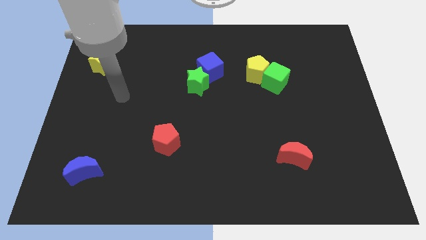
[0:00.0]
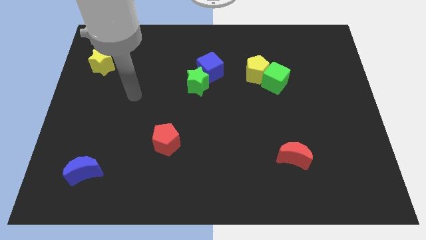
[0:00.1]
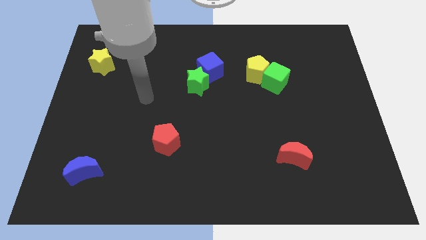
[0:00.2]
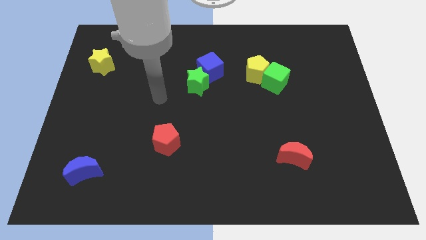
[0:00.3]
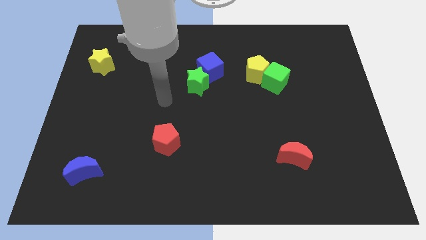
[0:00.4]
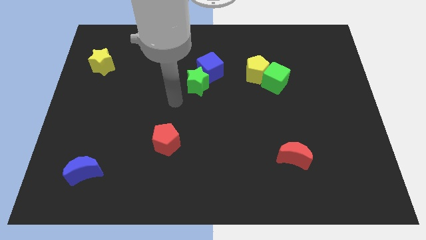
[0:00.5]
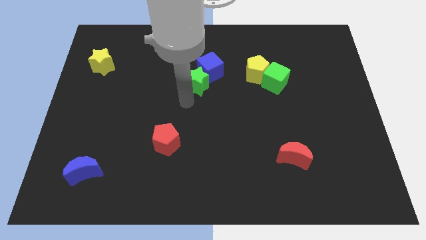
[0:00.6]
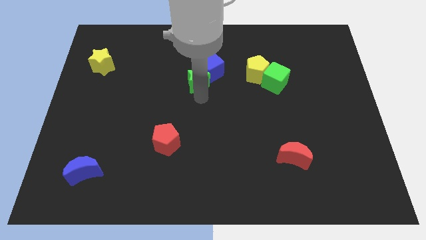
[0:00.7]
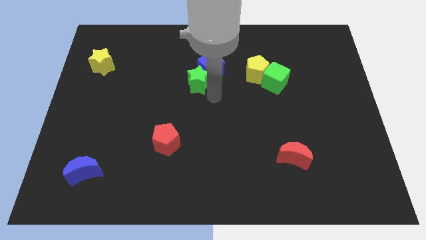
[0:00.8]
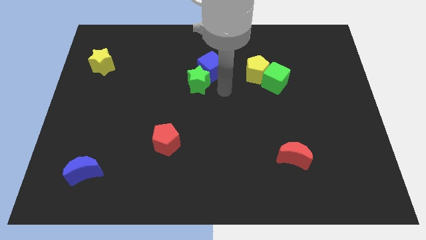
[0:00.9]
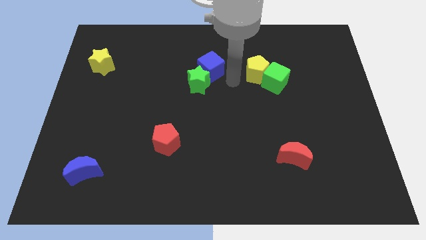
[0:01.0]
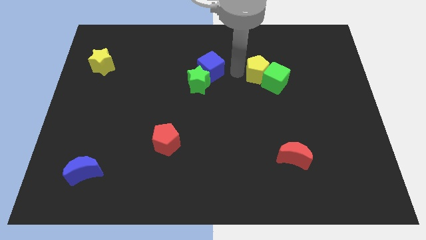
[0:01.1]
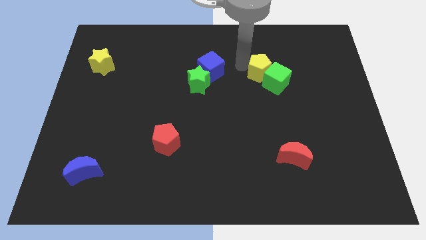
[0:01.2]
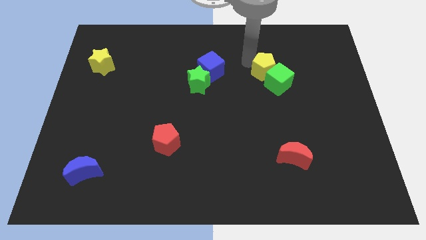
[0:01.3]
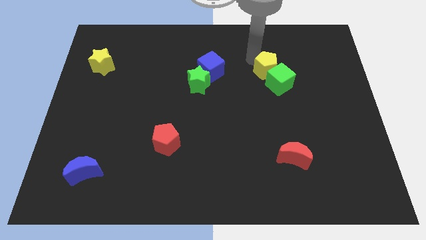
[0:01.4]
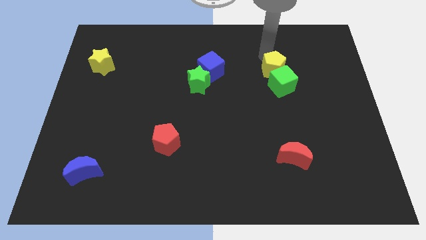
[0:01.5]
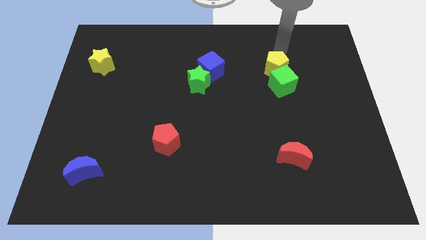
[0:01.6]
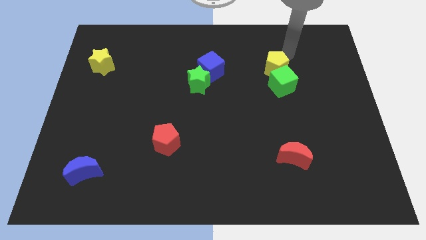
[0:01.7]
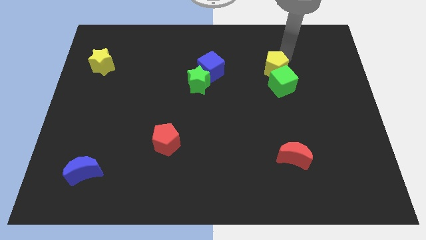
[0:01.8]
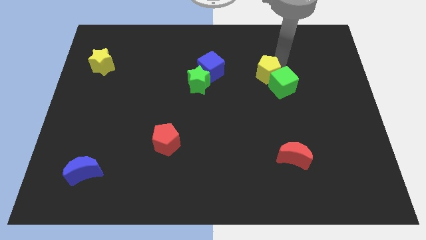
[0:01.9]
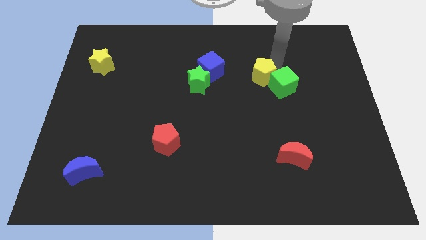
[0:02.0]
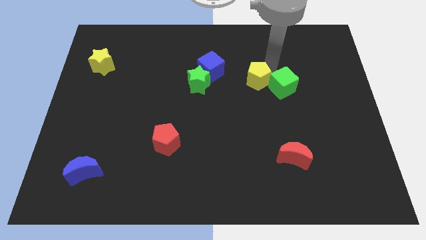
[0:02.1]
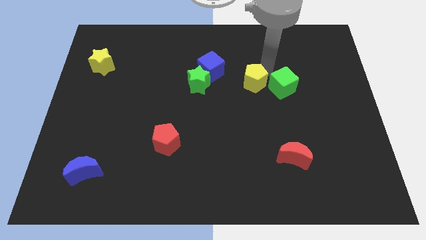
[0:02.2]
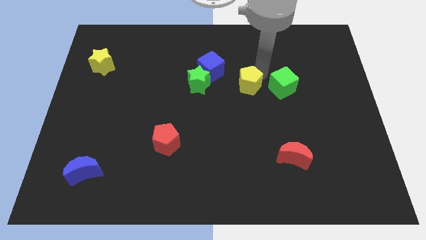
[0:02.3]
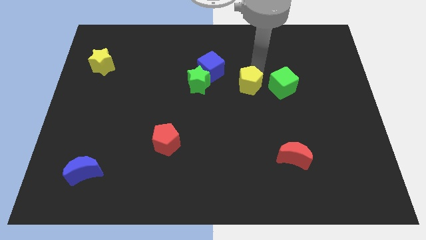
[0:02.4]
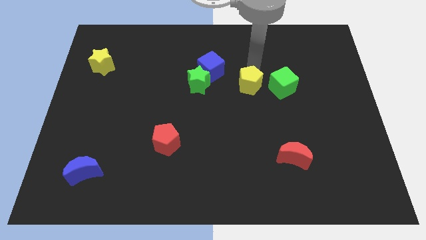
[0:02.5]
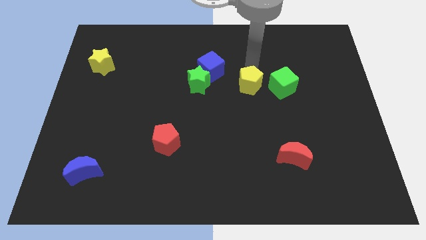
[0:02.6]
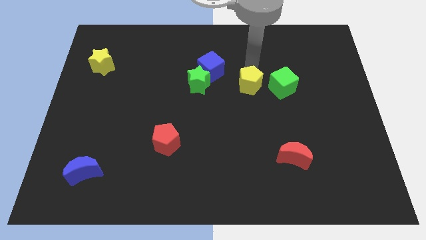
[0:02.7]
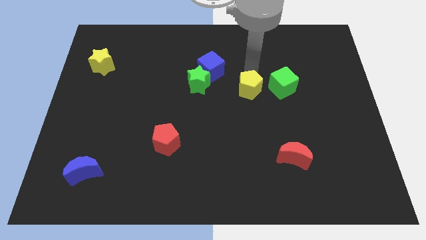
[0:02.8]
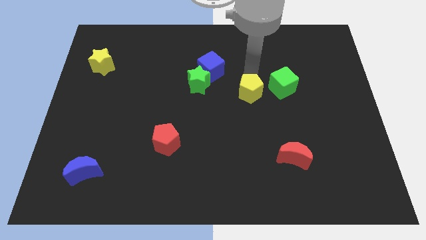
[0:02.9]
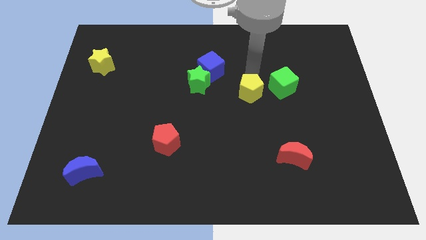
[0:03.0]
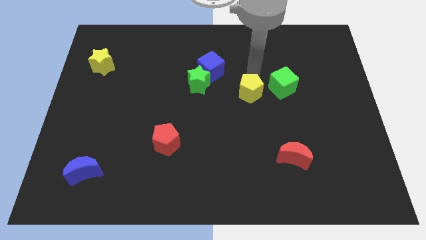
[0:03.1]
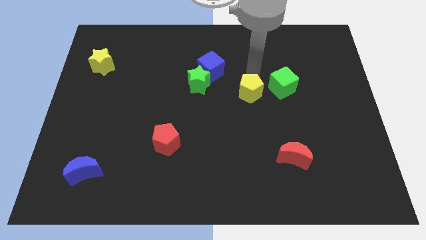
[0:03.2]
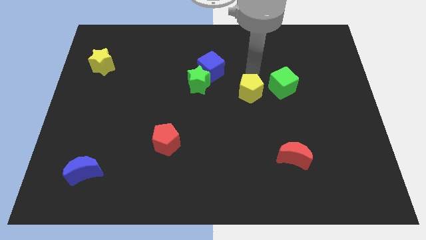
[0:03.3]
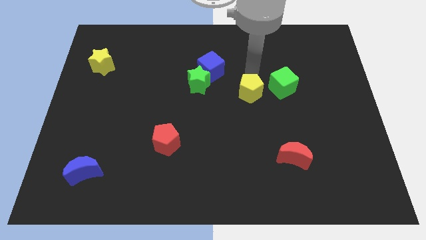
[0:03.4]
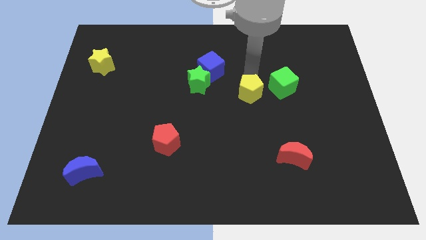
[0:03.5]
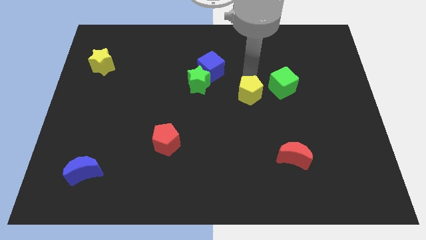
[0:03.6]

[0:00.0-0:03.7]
slide the yellow pentagon slightly downwards

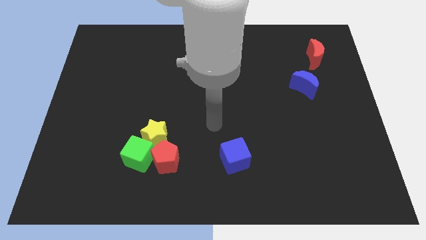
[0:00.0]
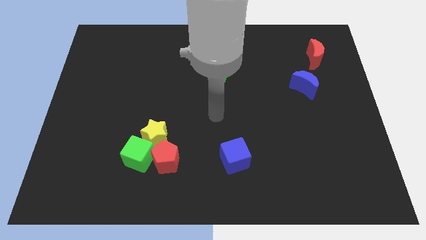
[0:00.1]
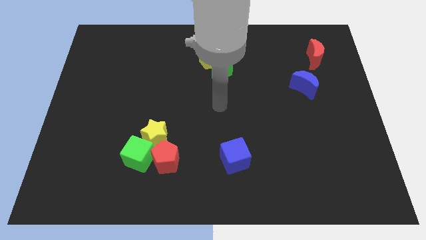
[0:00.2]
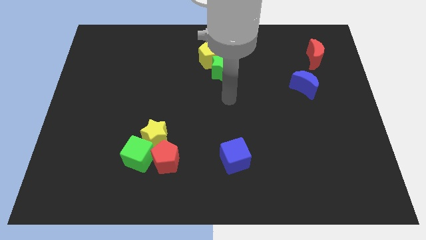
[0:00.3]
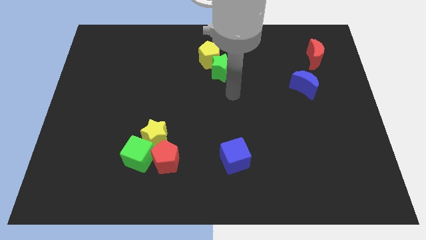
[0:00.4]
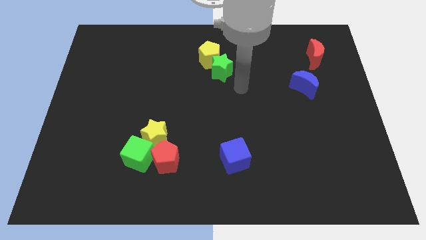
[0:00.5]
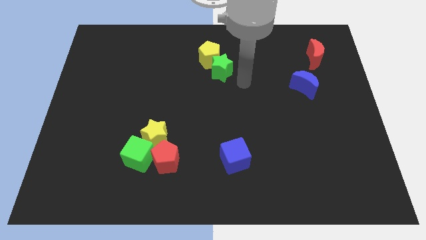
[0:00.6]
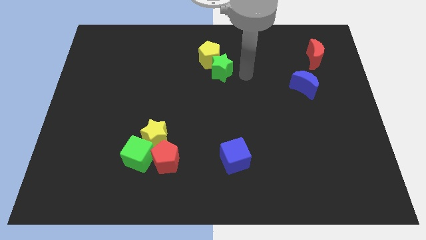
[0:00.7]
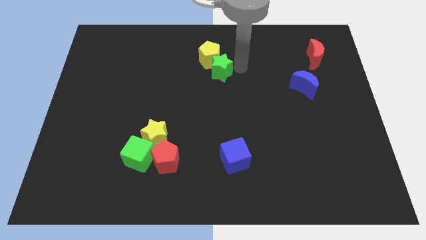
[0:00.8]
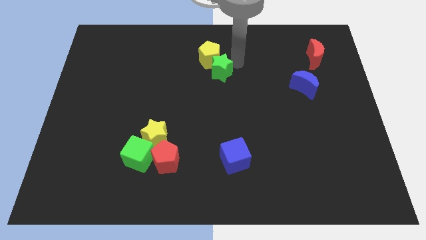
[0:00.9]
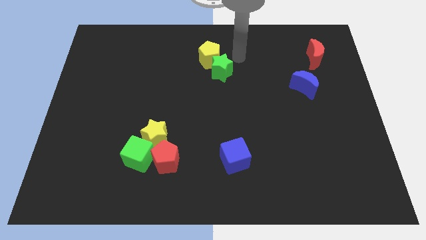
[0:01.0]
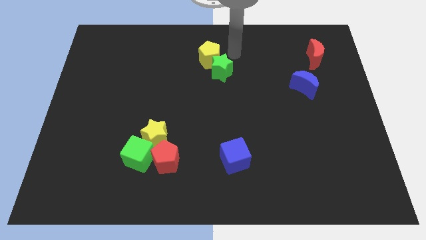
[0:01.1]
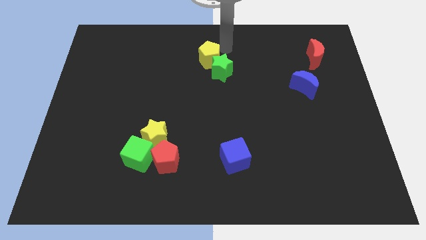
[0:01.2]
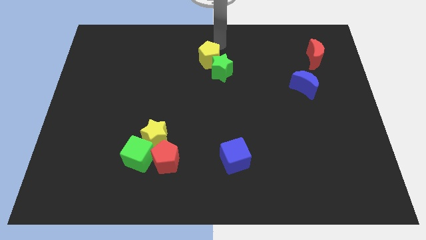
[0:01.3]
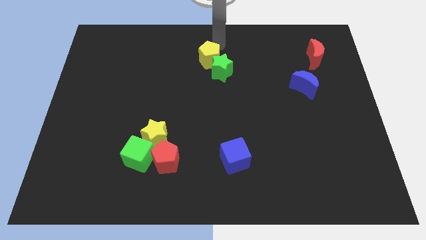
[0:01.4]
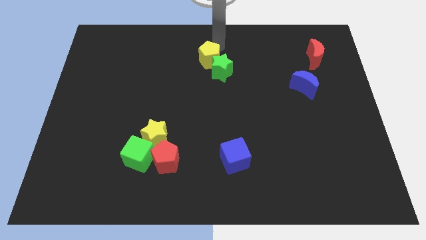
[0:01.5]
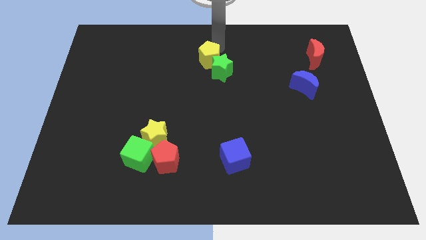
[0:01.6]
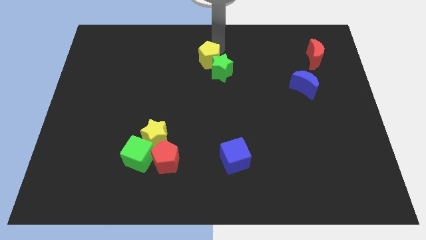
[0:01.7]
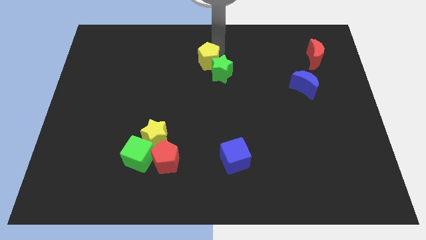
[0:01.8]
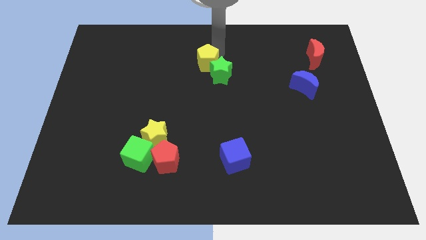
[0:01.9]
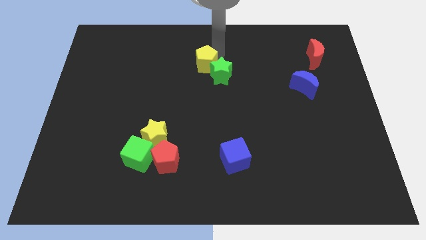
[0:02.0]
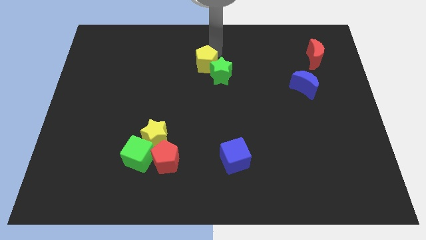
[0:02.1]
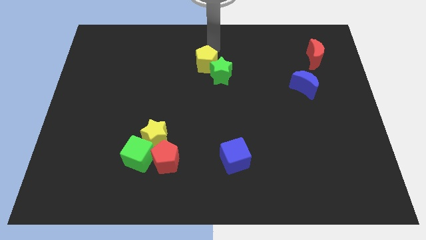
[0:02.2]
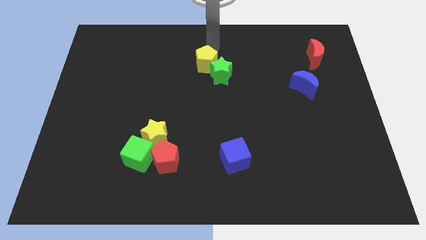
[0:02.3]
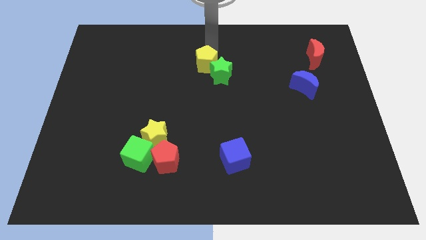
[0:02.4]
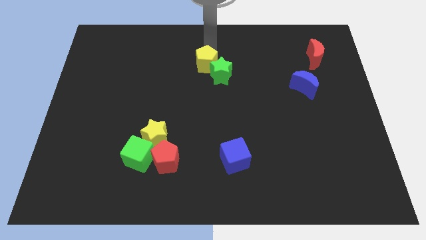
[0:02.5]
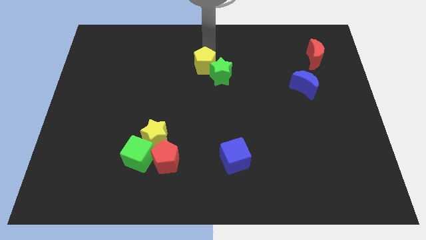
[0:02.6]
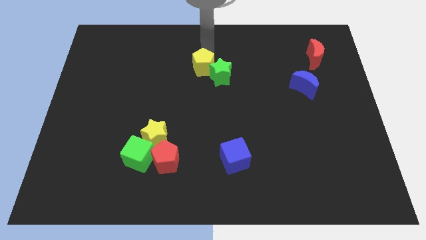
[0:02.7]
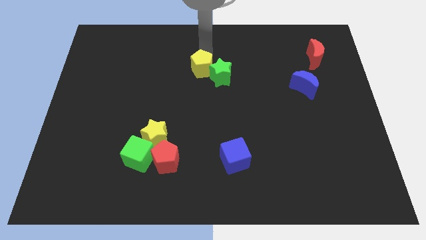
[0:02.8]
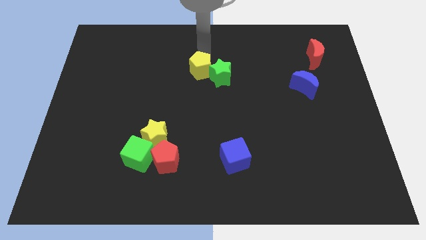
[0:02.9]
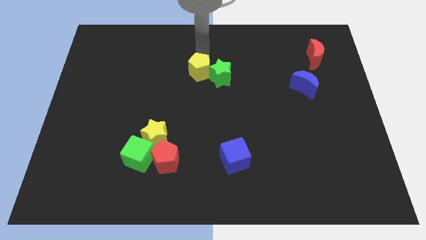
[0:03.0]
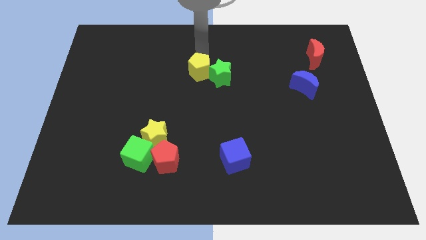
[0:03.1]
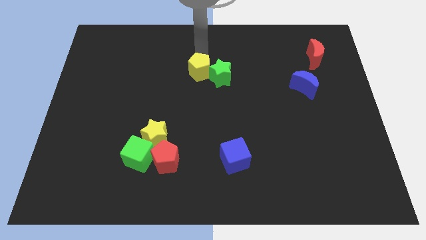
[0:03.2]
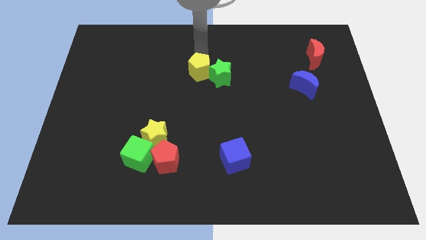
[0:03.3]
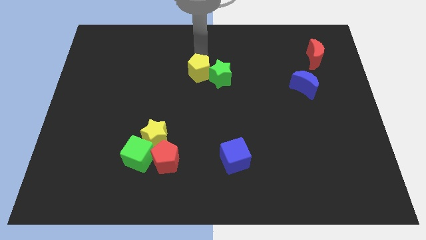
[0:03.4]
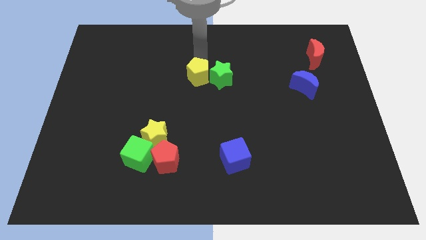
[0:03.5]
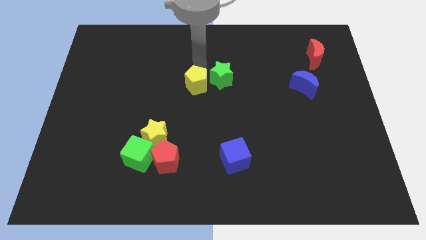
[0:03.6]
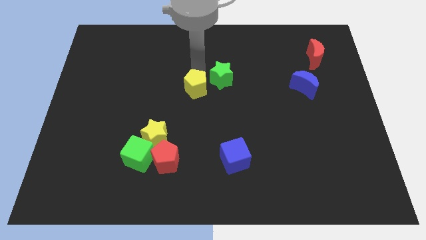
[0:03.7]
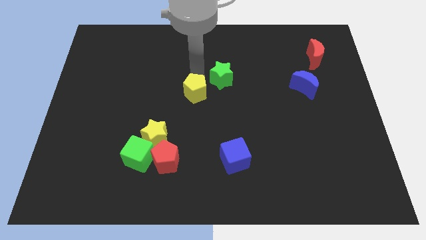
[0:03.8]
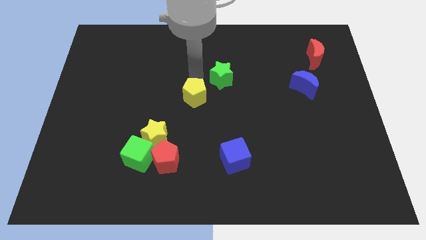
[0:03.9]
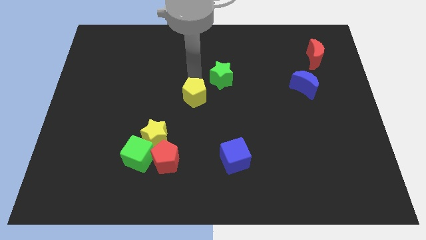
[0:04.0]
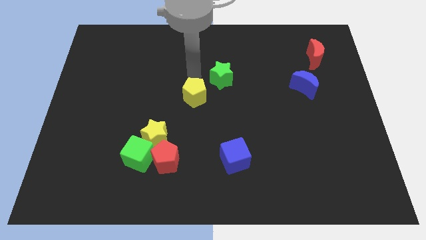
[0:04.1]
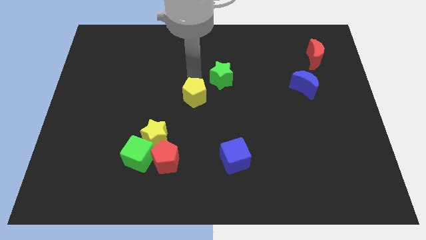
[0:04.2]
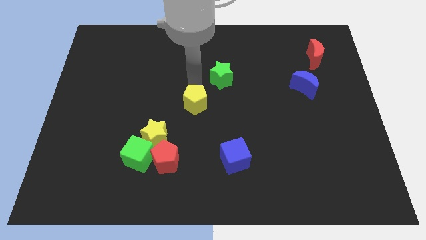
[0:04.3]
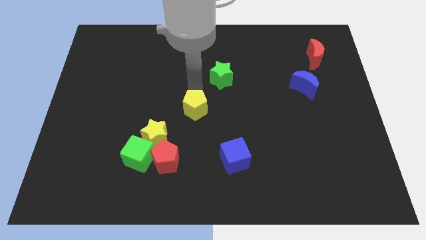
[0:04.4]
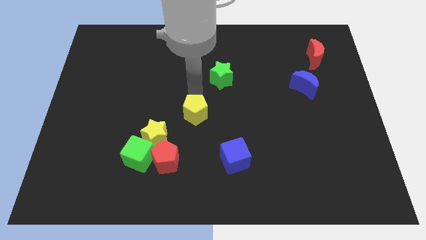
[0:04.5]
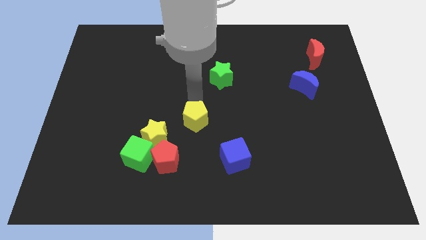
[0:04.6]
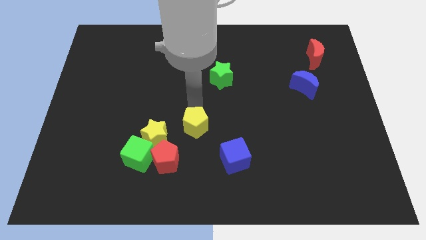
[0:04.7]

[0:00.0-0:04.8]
slide the yellow pentagon downwards
